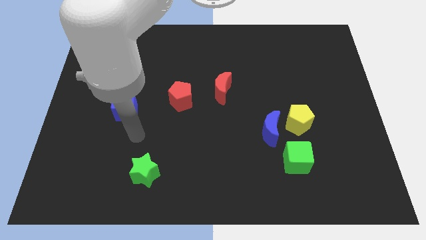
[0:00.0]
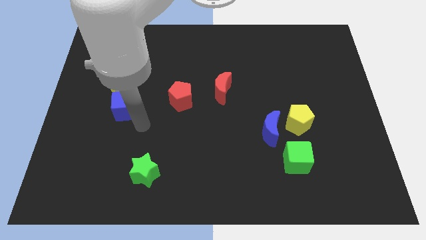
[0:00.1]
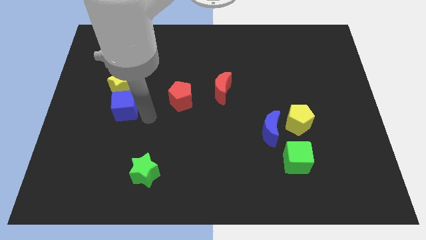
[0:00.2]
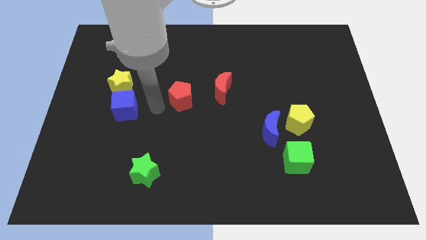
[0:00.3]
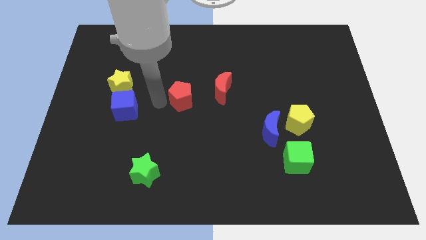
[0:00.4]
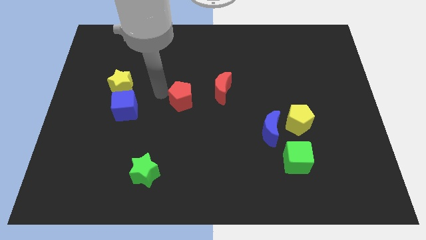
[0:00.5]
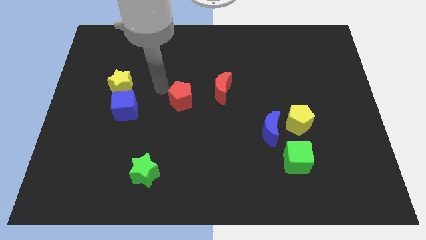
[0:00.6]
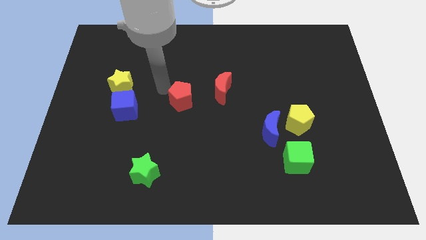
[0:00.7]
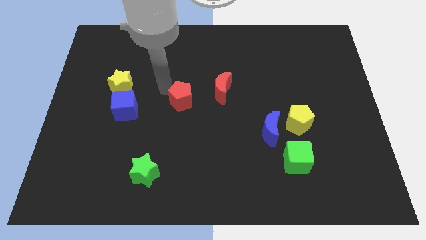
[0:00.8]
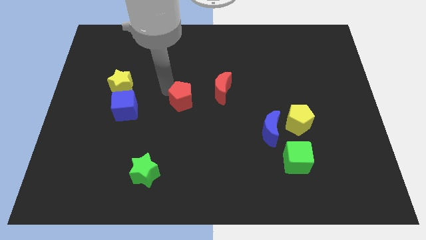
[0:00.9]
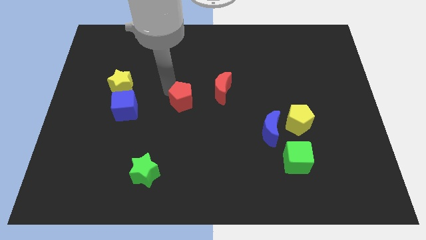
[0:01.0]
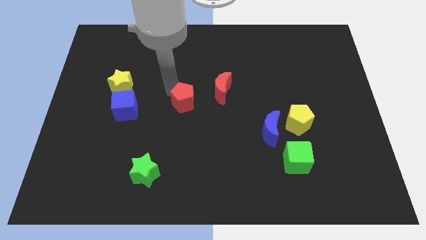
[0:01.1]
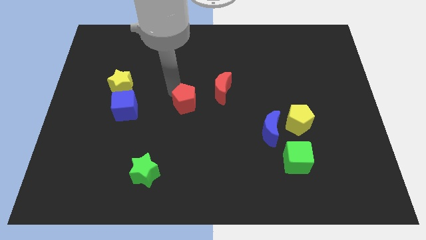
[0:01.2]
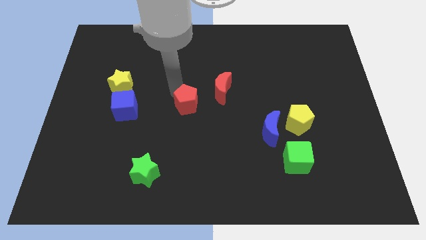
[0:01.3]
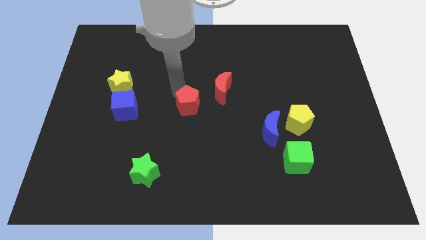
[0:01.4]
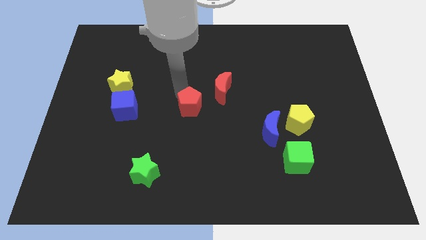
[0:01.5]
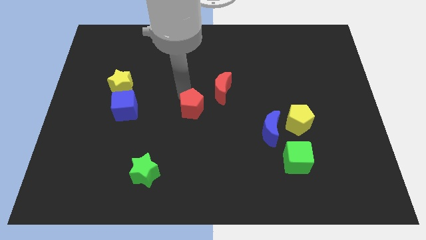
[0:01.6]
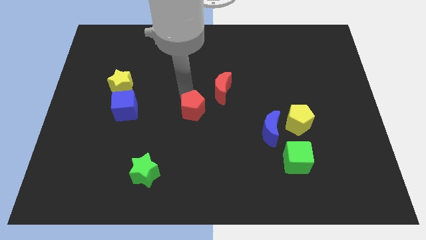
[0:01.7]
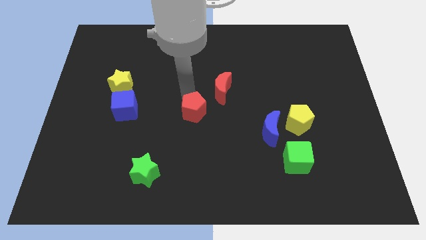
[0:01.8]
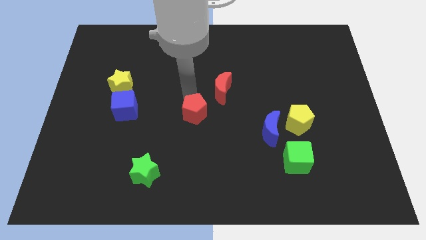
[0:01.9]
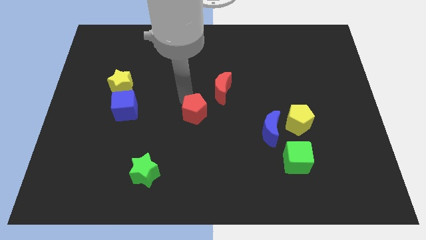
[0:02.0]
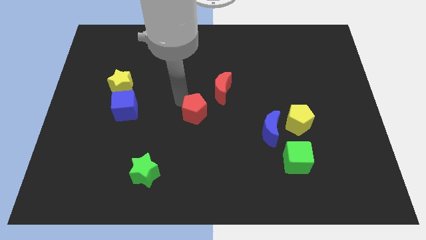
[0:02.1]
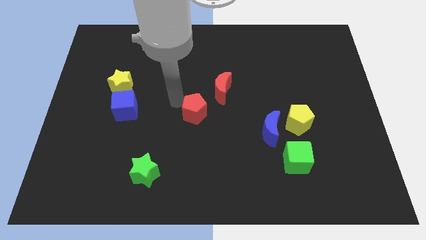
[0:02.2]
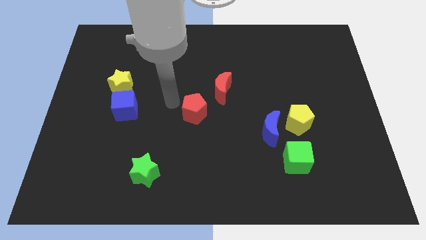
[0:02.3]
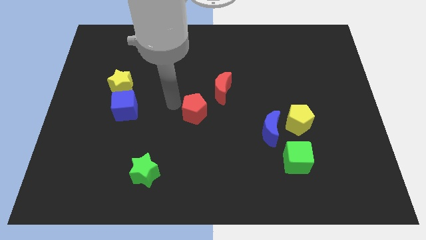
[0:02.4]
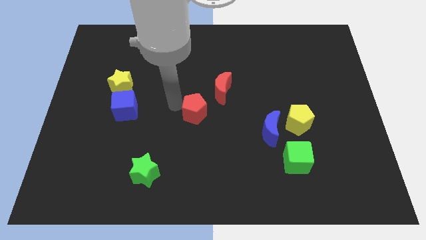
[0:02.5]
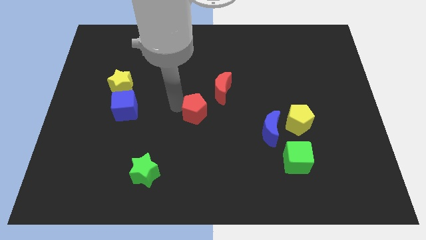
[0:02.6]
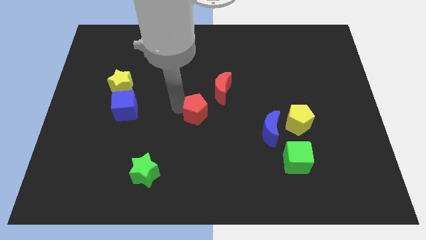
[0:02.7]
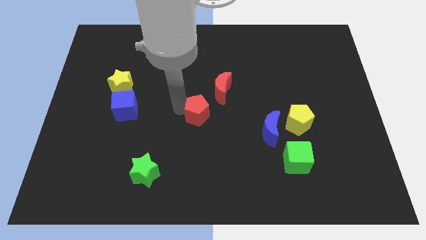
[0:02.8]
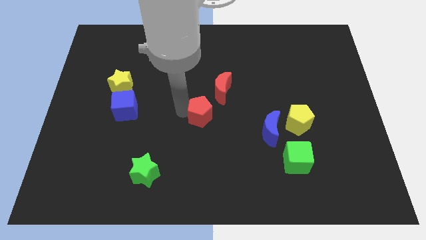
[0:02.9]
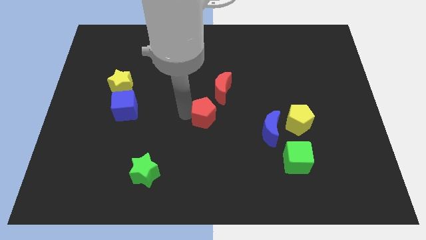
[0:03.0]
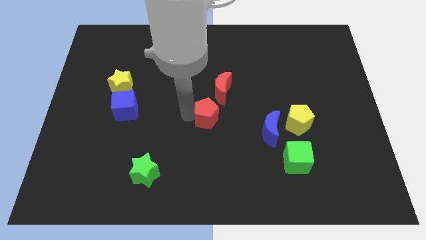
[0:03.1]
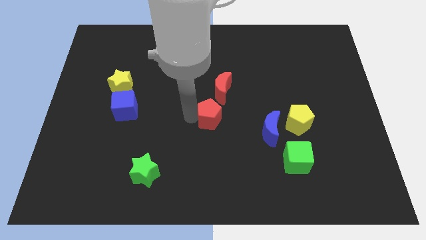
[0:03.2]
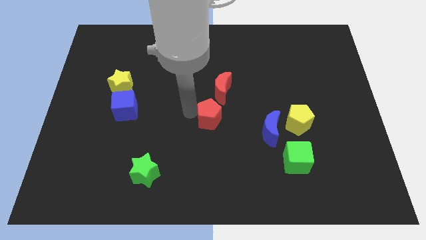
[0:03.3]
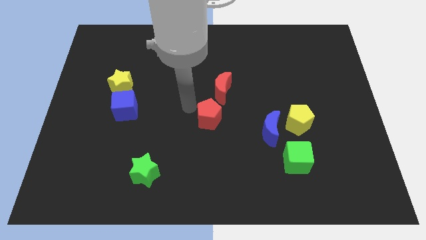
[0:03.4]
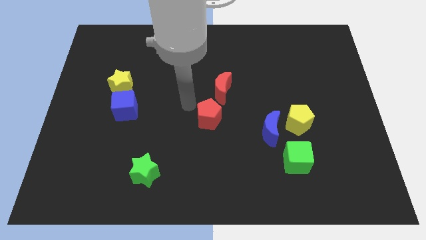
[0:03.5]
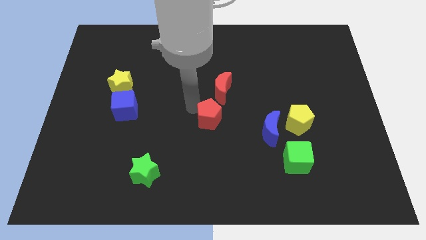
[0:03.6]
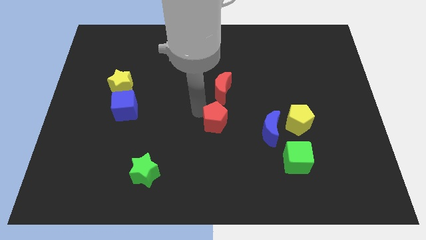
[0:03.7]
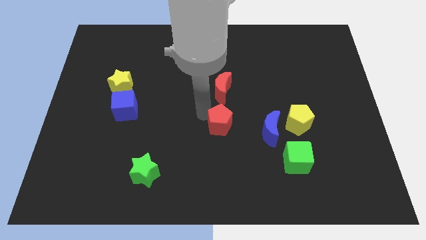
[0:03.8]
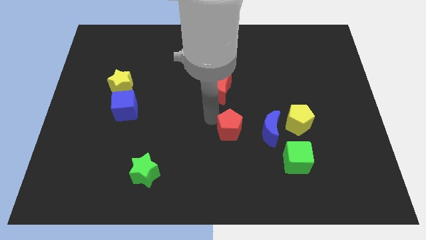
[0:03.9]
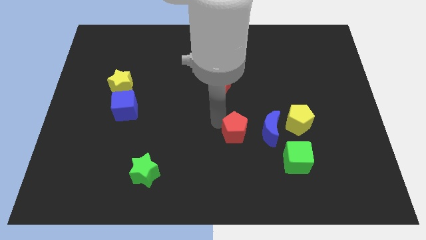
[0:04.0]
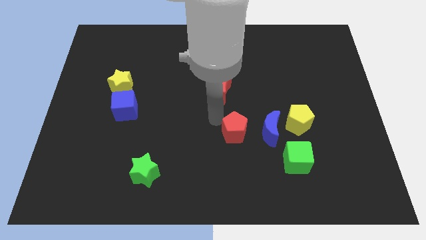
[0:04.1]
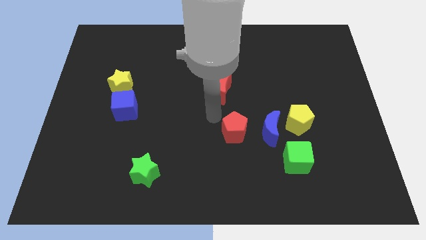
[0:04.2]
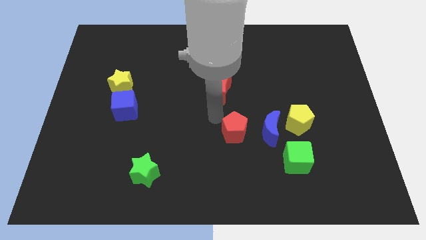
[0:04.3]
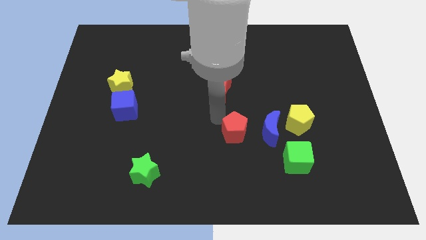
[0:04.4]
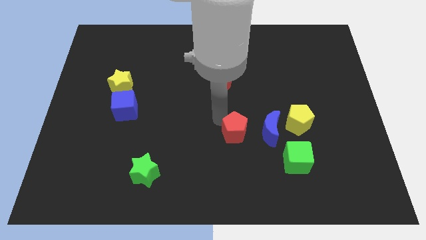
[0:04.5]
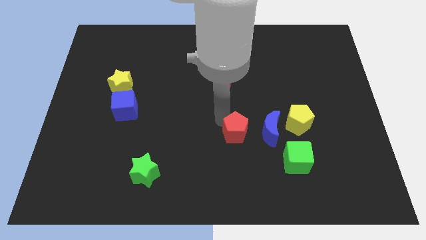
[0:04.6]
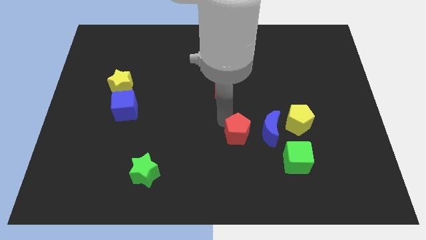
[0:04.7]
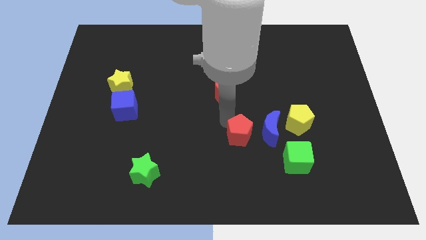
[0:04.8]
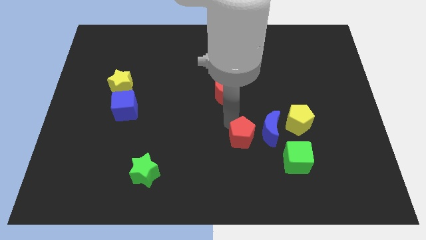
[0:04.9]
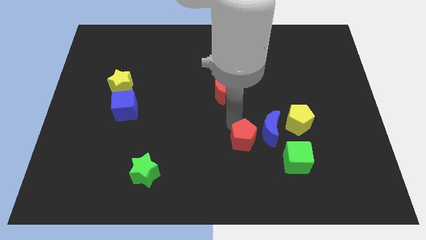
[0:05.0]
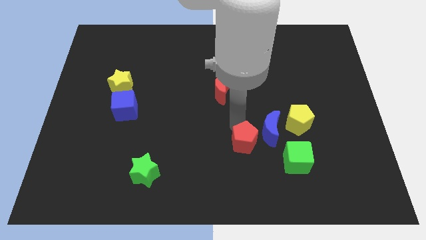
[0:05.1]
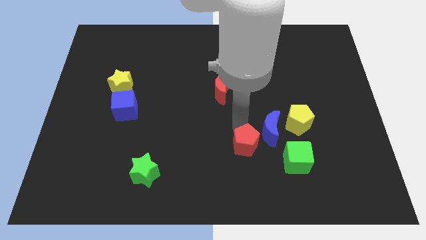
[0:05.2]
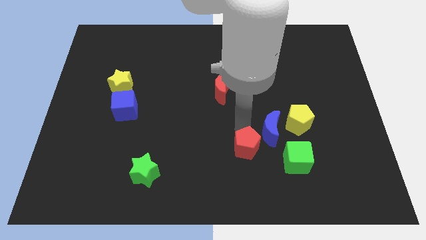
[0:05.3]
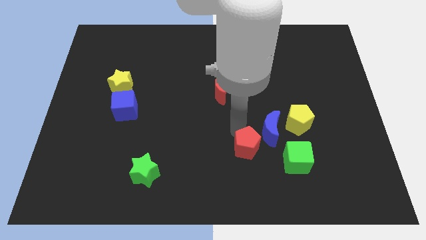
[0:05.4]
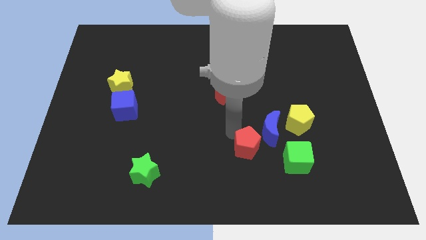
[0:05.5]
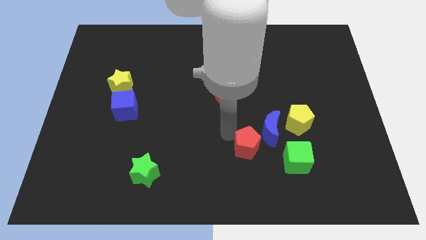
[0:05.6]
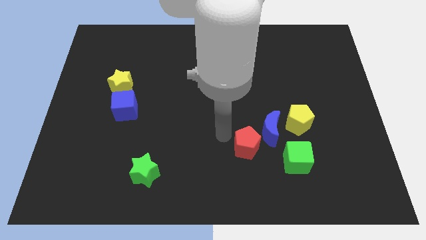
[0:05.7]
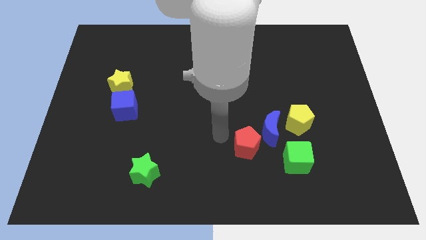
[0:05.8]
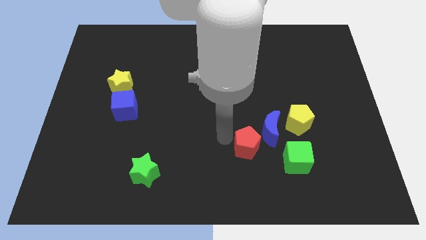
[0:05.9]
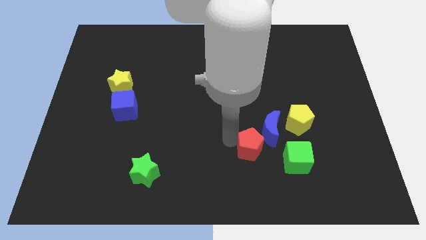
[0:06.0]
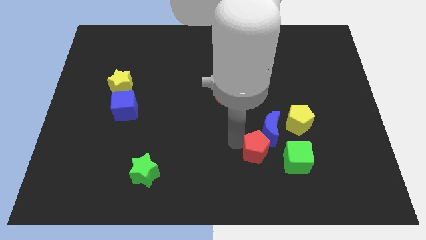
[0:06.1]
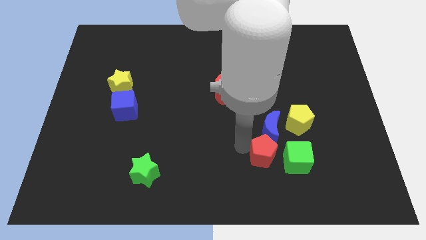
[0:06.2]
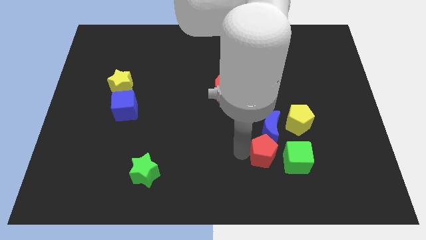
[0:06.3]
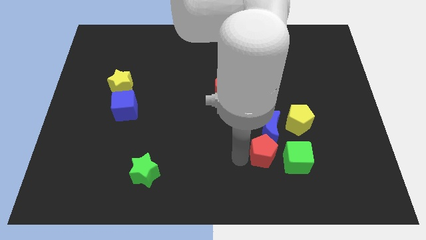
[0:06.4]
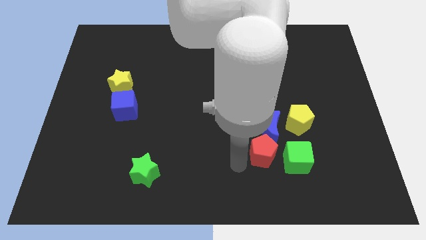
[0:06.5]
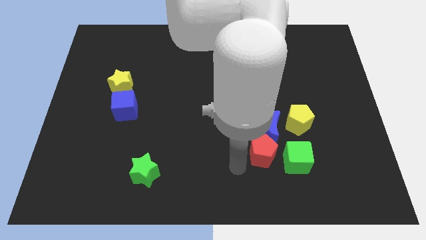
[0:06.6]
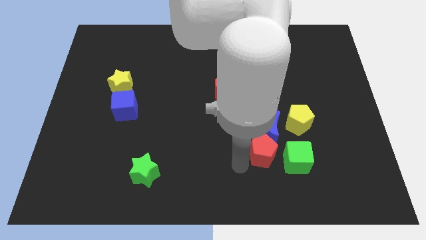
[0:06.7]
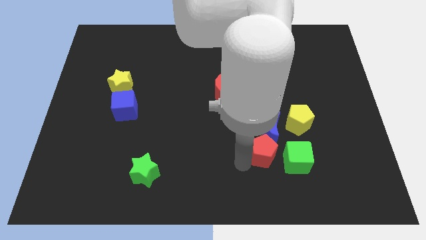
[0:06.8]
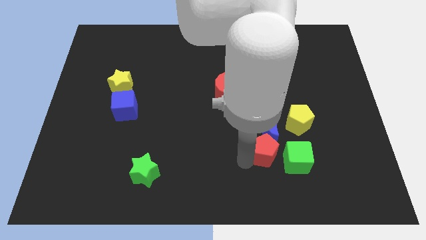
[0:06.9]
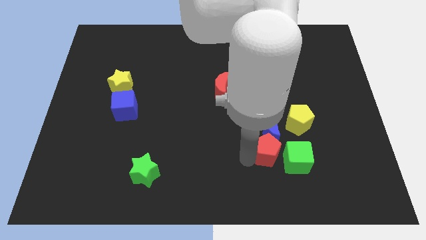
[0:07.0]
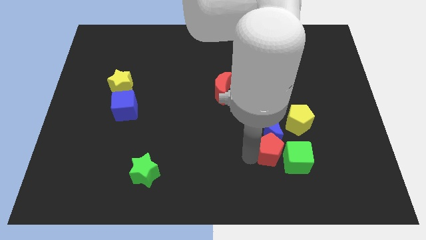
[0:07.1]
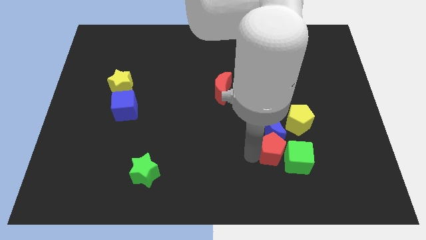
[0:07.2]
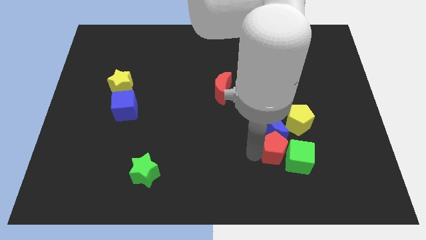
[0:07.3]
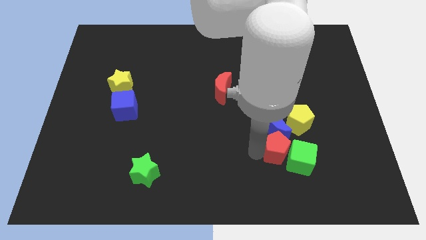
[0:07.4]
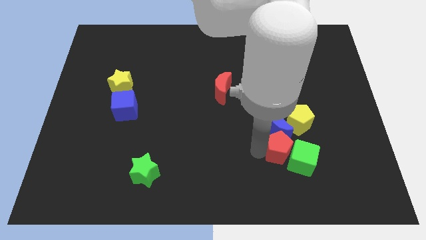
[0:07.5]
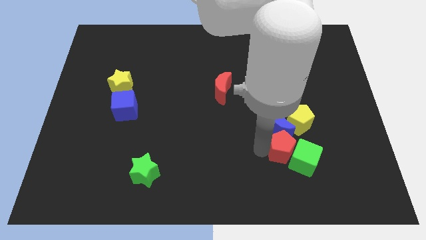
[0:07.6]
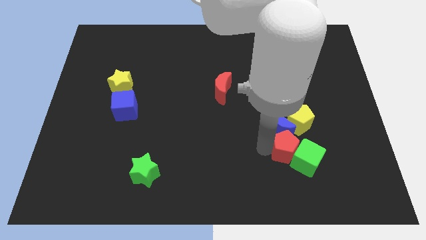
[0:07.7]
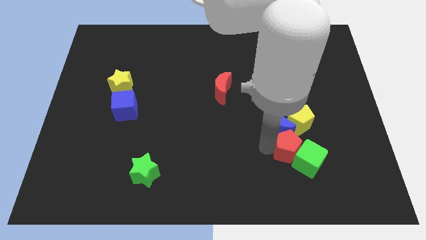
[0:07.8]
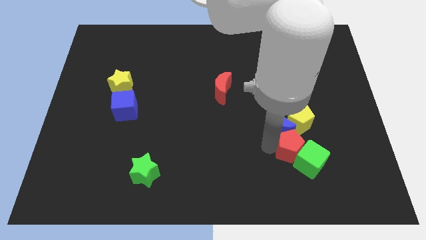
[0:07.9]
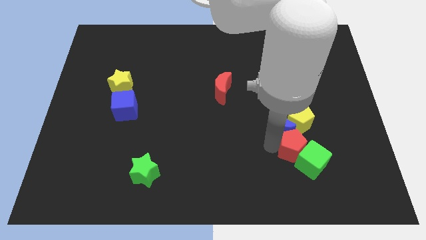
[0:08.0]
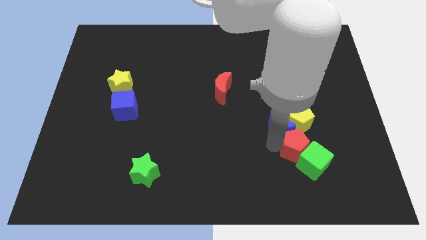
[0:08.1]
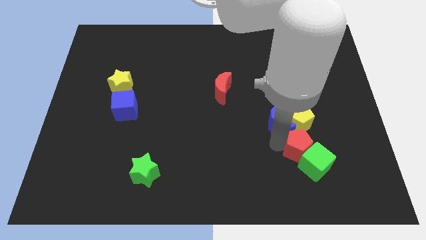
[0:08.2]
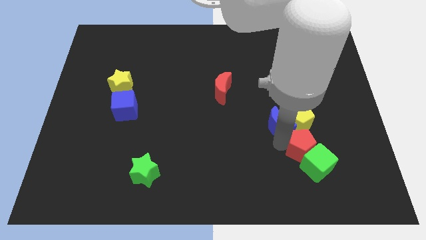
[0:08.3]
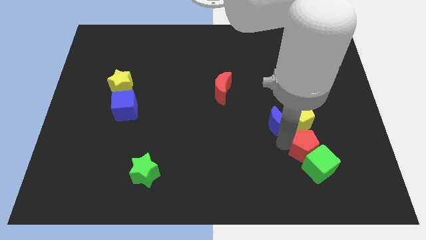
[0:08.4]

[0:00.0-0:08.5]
push the red pentagon to the bottom right side of the yellow pentagon
